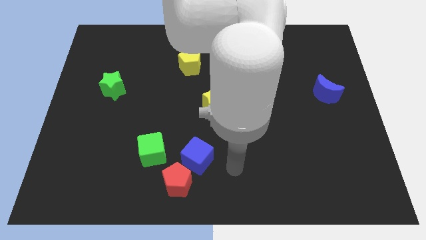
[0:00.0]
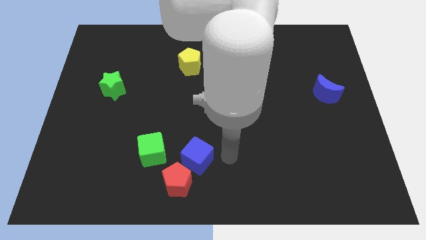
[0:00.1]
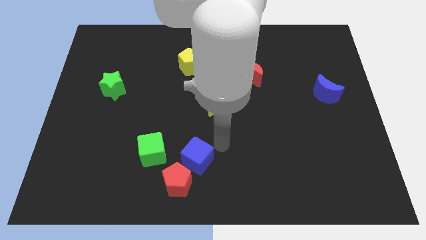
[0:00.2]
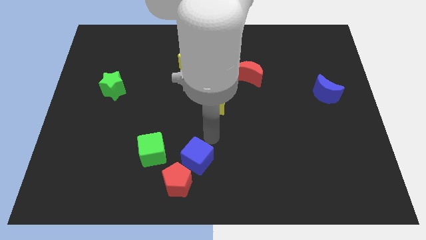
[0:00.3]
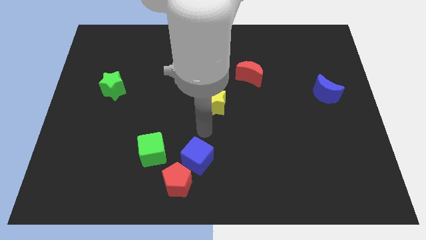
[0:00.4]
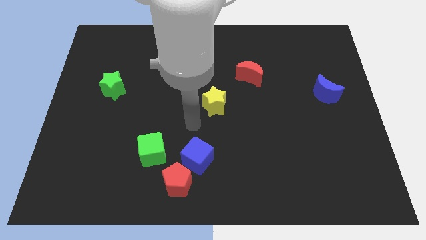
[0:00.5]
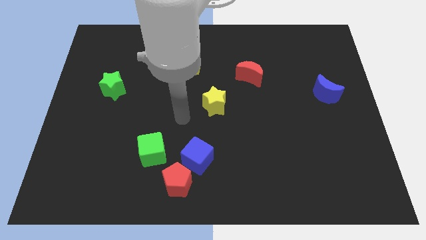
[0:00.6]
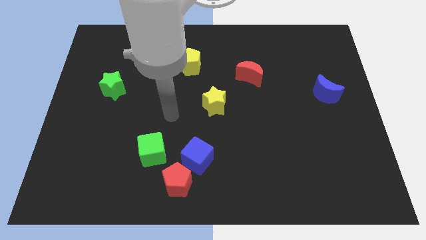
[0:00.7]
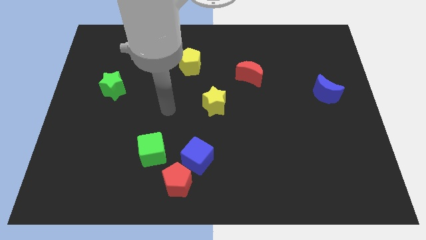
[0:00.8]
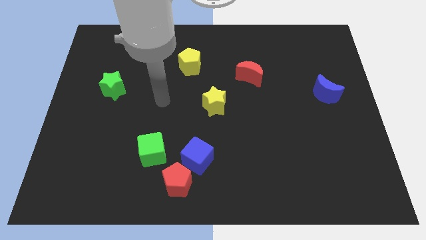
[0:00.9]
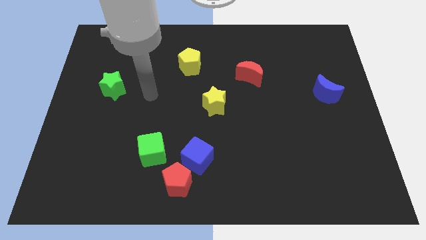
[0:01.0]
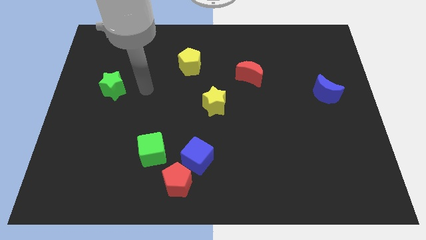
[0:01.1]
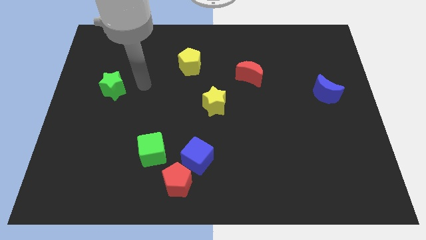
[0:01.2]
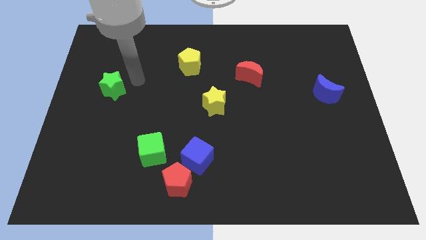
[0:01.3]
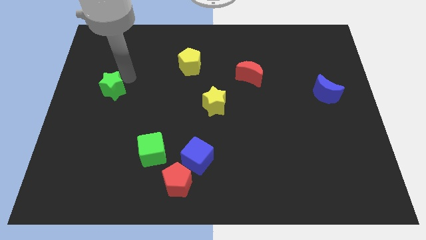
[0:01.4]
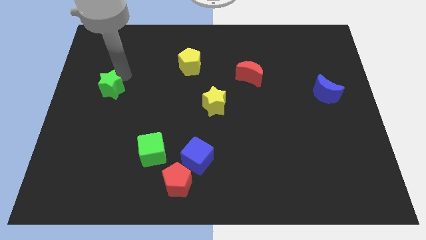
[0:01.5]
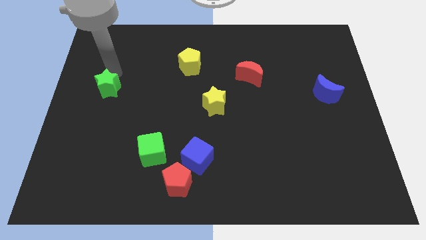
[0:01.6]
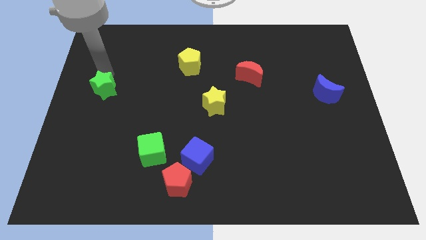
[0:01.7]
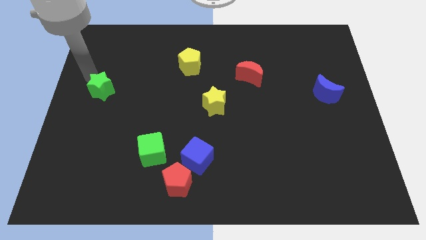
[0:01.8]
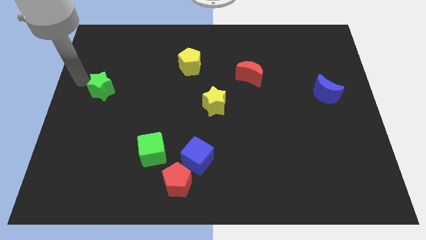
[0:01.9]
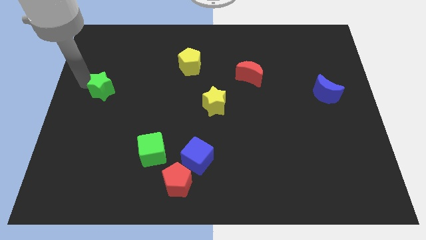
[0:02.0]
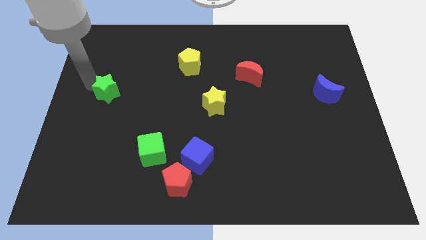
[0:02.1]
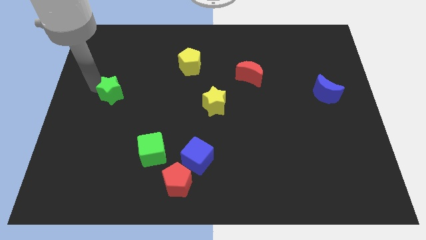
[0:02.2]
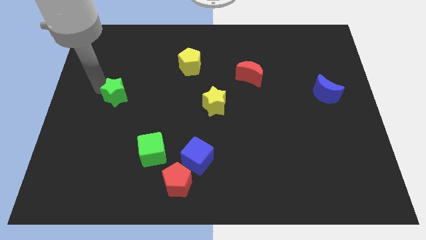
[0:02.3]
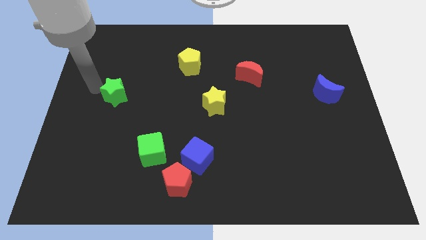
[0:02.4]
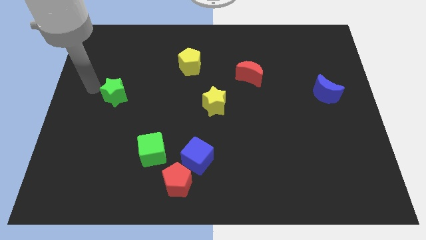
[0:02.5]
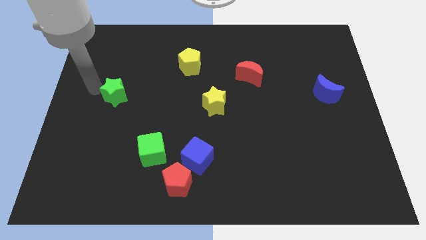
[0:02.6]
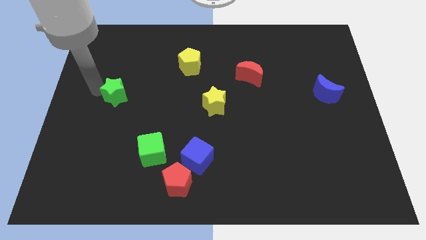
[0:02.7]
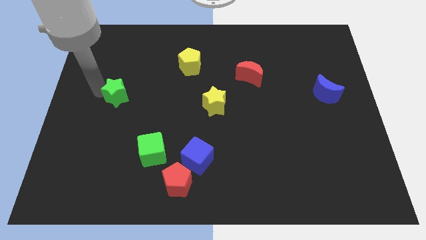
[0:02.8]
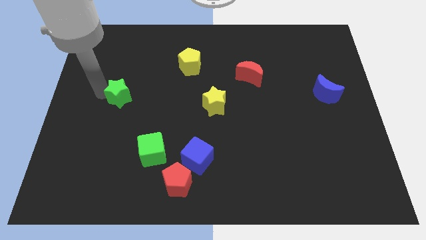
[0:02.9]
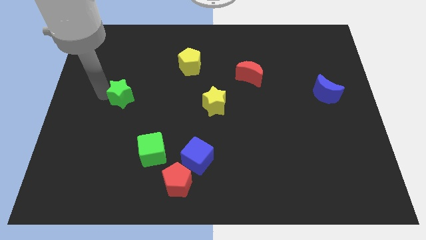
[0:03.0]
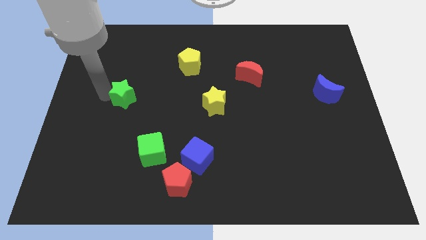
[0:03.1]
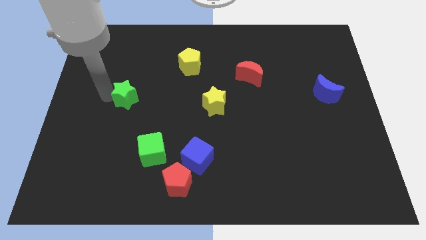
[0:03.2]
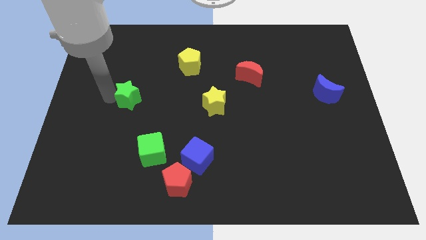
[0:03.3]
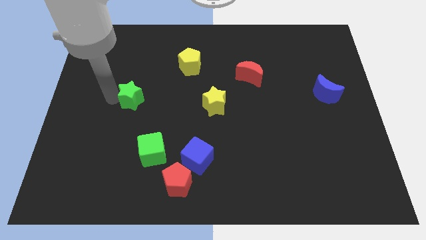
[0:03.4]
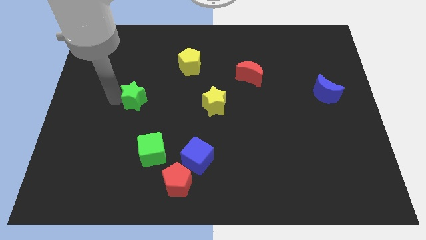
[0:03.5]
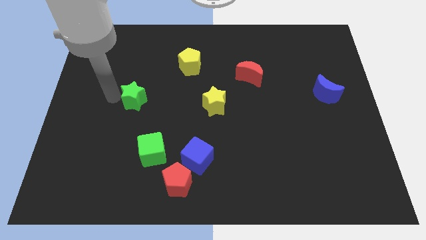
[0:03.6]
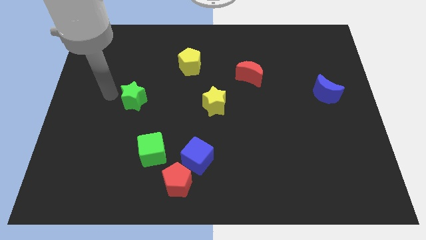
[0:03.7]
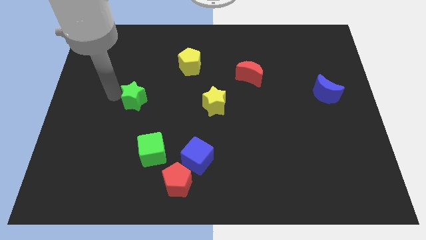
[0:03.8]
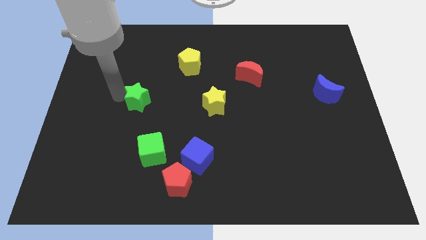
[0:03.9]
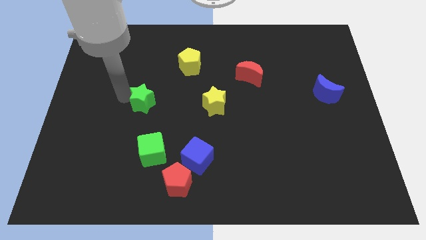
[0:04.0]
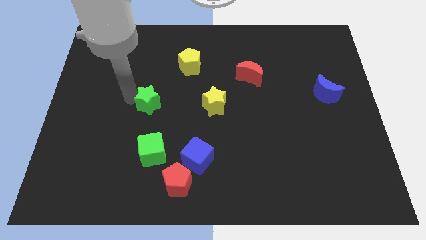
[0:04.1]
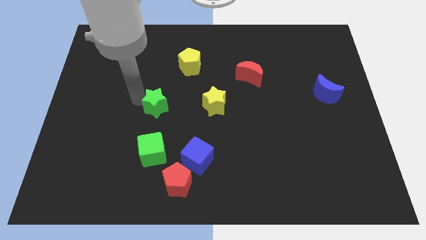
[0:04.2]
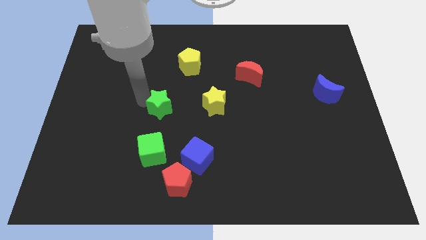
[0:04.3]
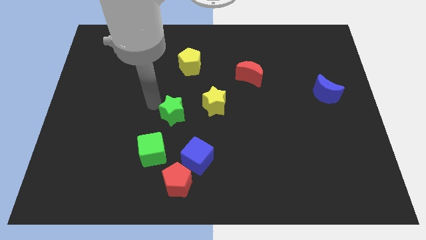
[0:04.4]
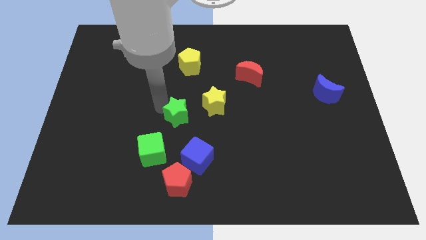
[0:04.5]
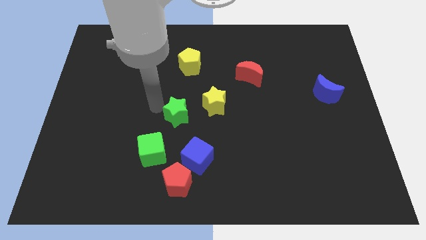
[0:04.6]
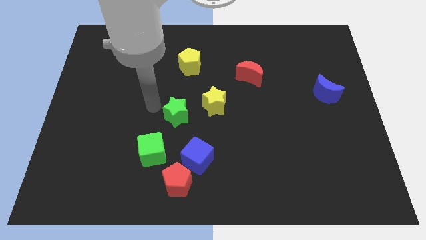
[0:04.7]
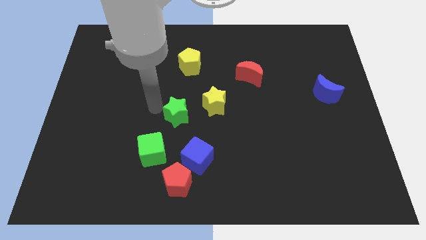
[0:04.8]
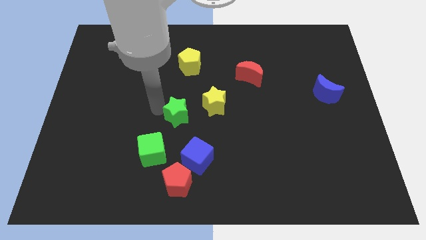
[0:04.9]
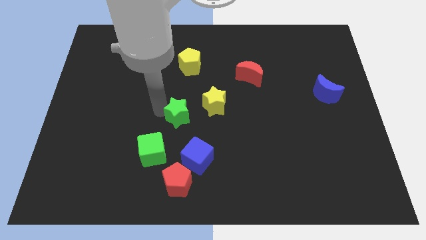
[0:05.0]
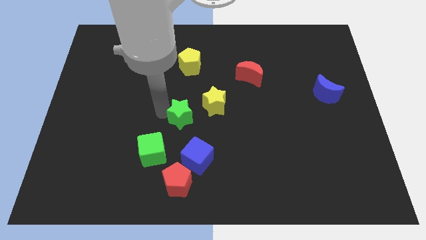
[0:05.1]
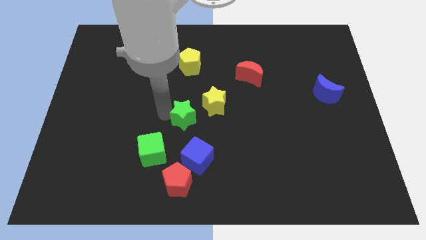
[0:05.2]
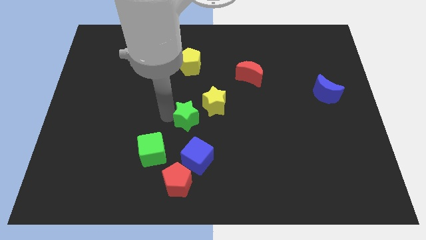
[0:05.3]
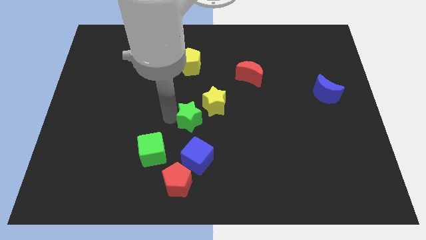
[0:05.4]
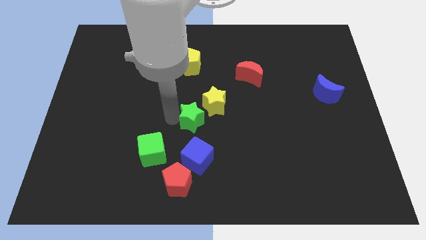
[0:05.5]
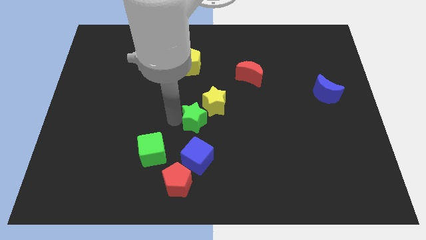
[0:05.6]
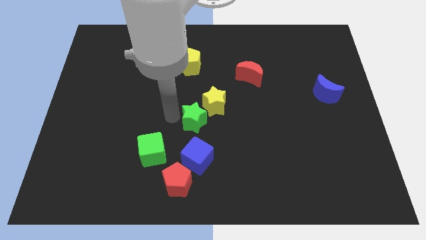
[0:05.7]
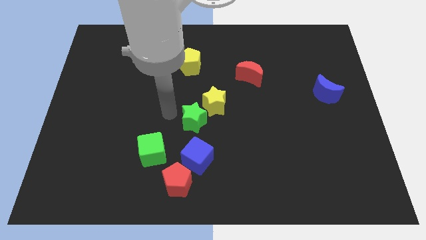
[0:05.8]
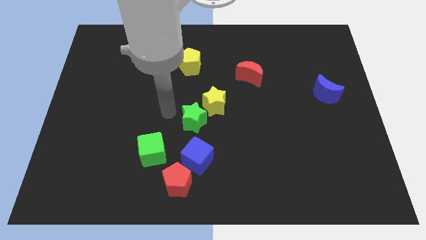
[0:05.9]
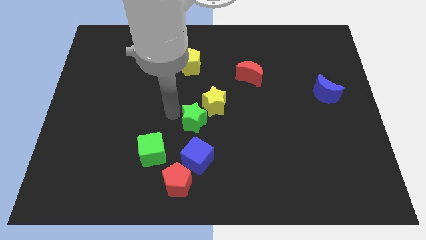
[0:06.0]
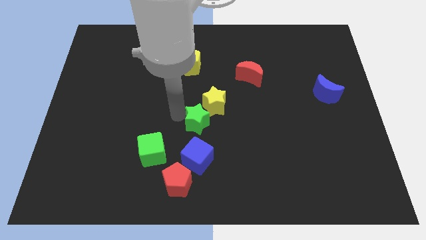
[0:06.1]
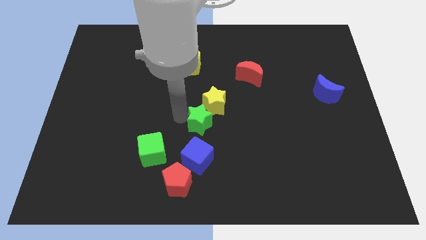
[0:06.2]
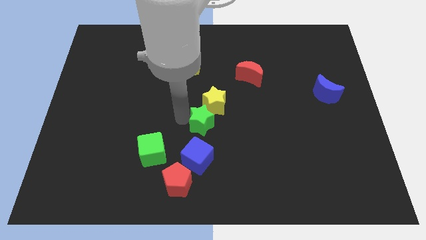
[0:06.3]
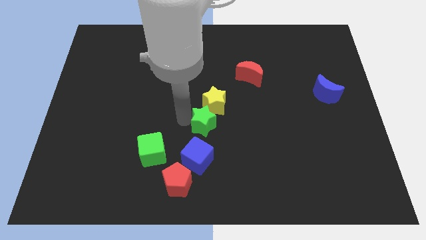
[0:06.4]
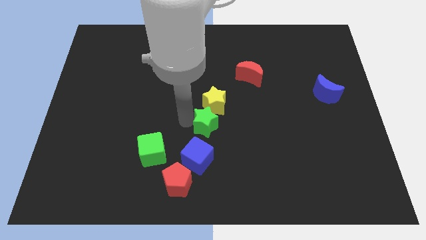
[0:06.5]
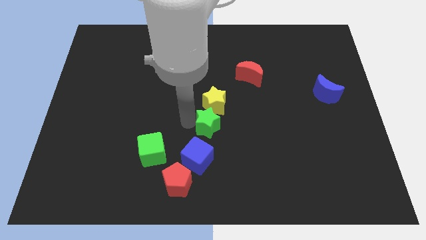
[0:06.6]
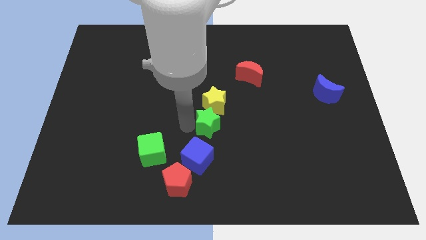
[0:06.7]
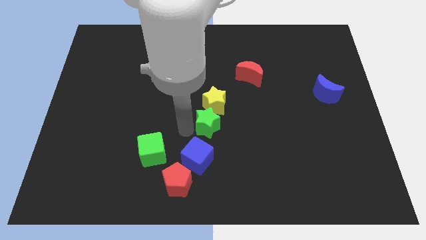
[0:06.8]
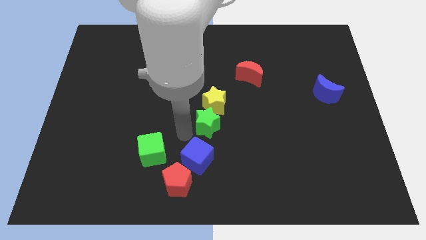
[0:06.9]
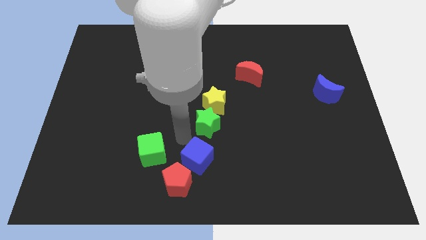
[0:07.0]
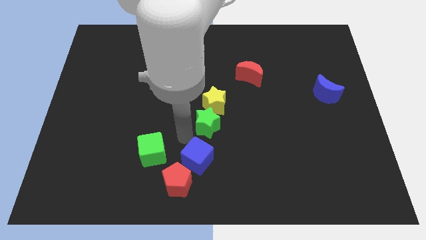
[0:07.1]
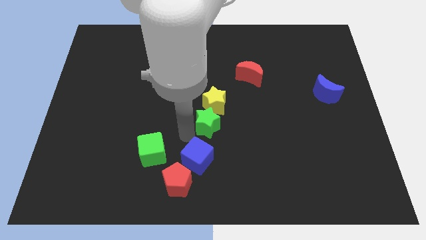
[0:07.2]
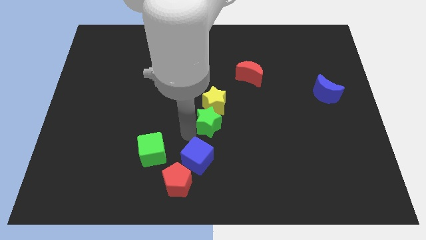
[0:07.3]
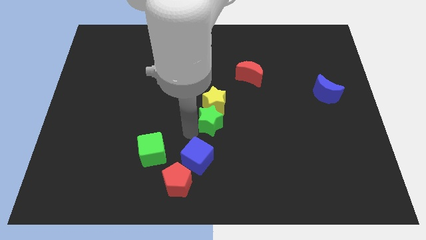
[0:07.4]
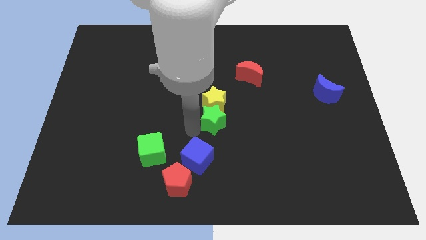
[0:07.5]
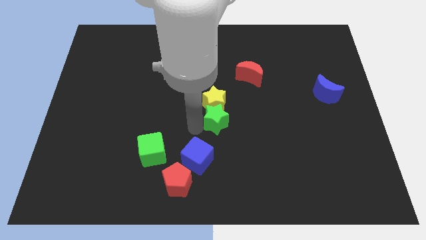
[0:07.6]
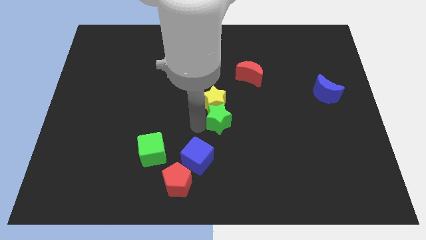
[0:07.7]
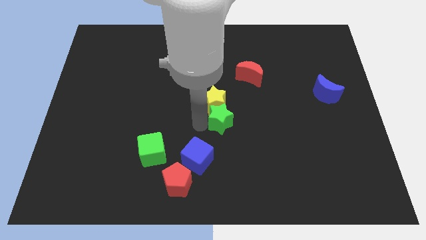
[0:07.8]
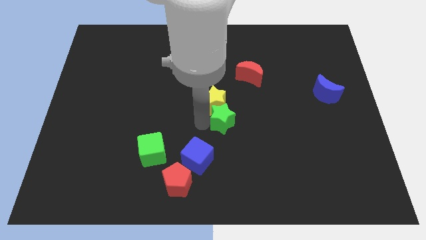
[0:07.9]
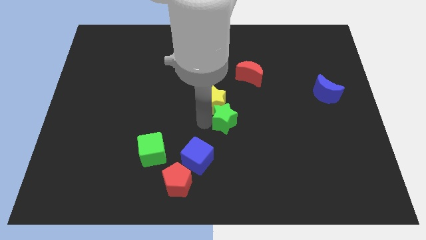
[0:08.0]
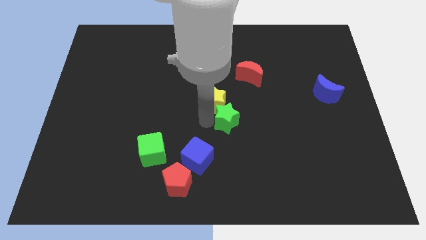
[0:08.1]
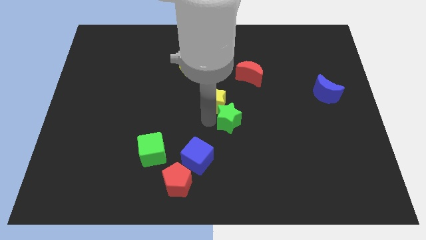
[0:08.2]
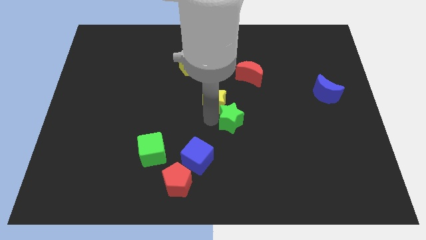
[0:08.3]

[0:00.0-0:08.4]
push the green star to the right of the yellow star
